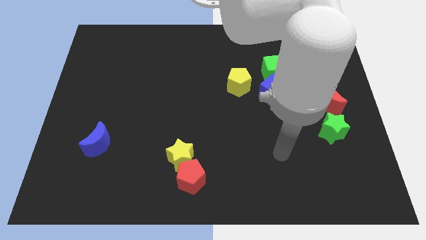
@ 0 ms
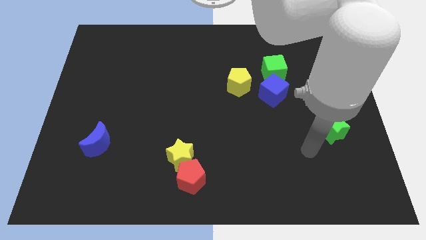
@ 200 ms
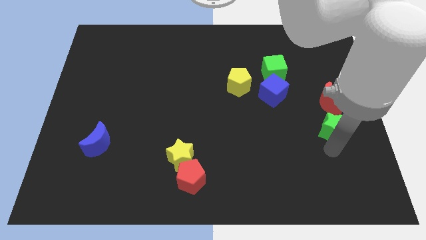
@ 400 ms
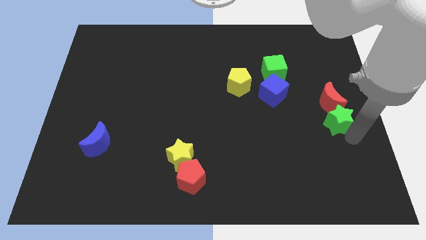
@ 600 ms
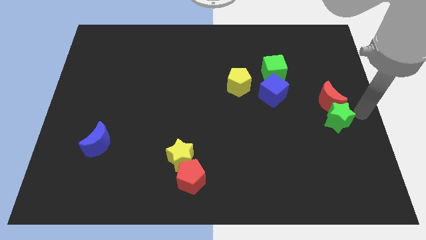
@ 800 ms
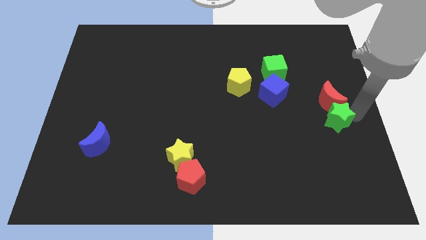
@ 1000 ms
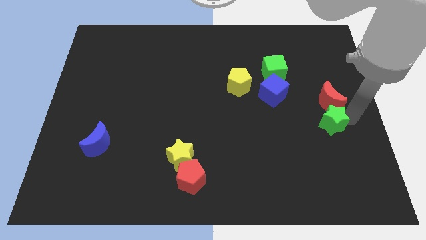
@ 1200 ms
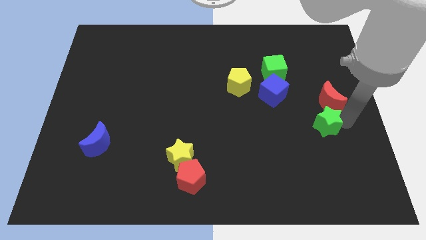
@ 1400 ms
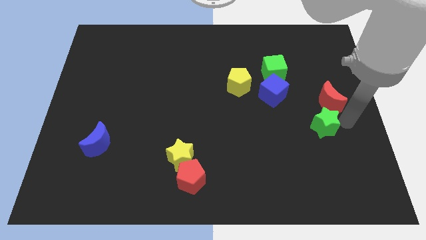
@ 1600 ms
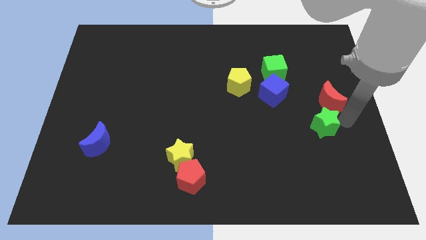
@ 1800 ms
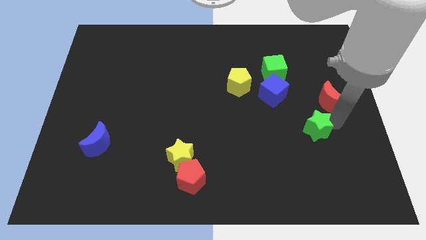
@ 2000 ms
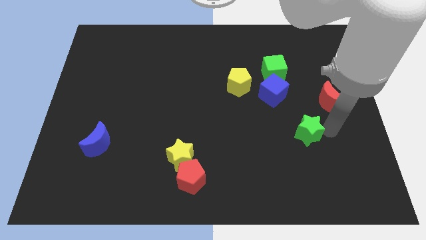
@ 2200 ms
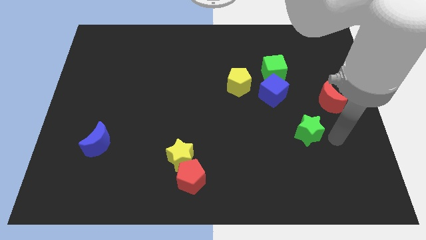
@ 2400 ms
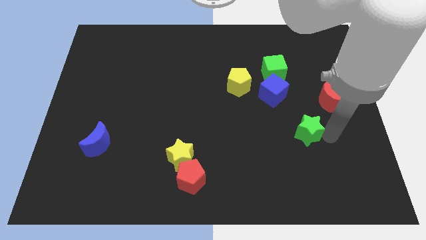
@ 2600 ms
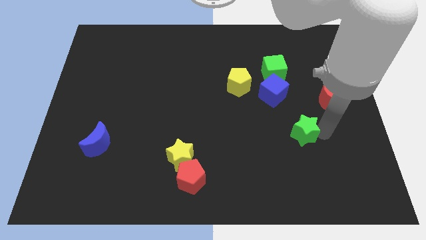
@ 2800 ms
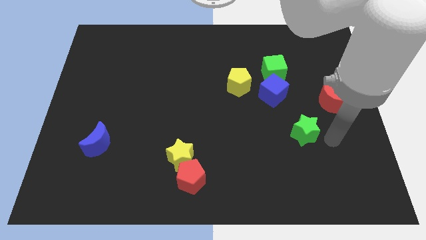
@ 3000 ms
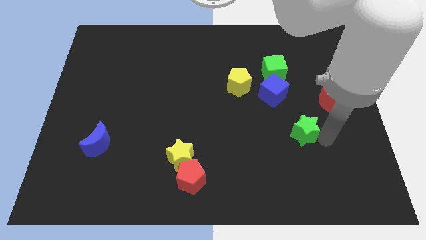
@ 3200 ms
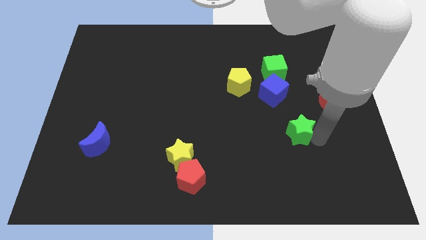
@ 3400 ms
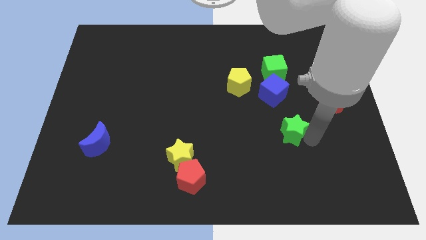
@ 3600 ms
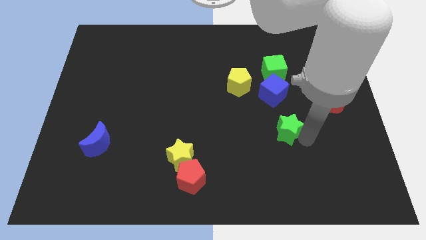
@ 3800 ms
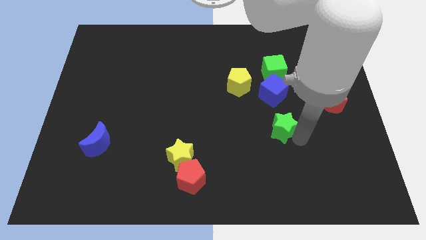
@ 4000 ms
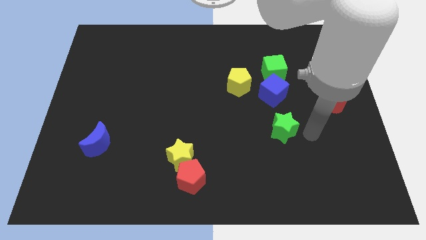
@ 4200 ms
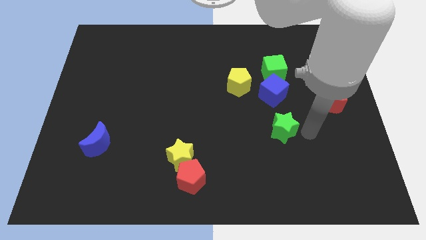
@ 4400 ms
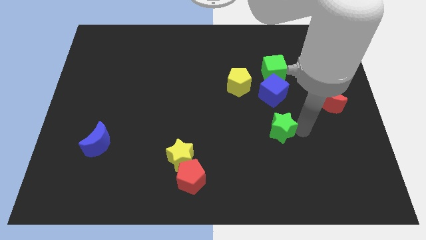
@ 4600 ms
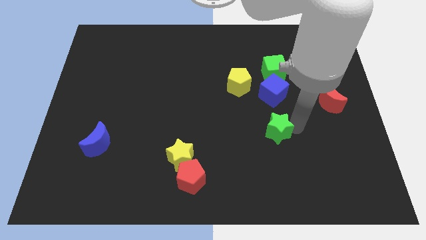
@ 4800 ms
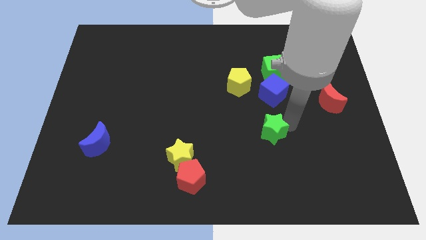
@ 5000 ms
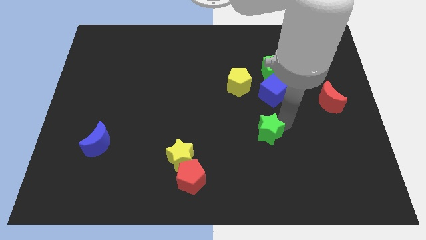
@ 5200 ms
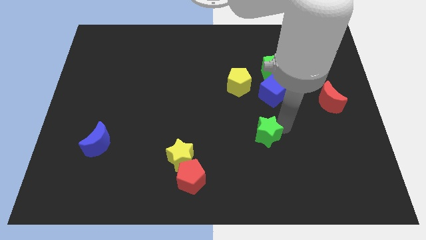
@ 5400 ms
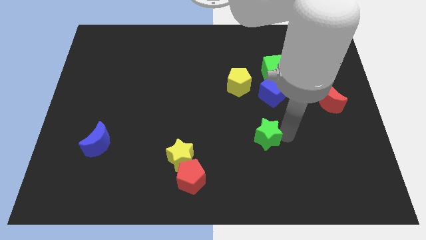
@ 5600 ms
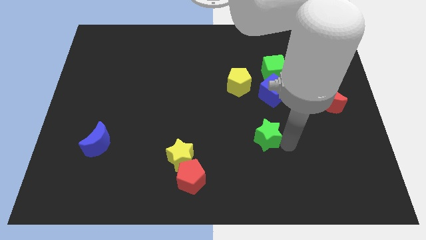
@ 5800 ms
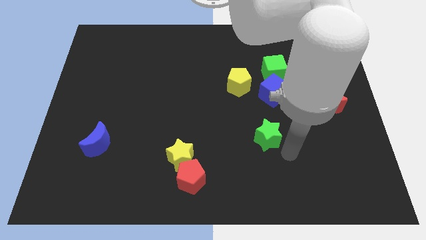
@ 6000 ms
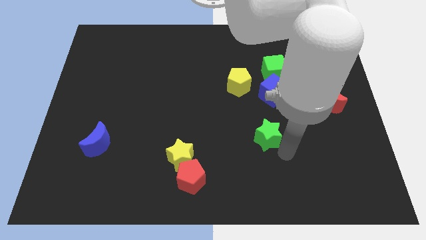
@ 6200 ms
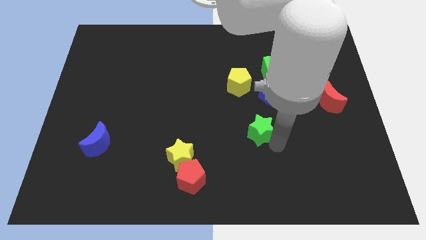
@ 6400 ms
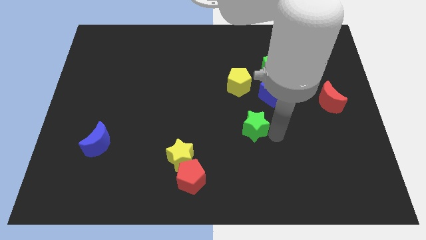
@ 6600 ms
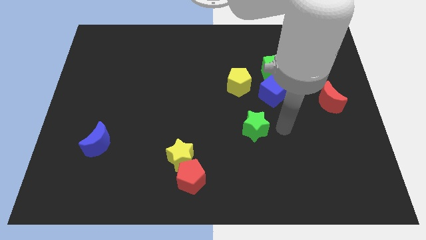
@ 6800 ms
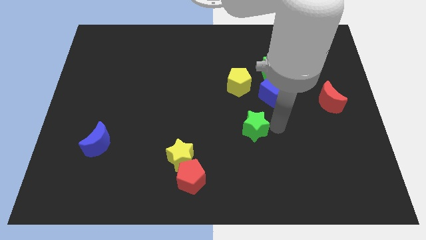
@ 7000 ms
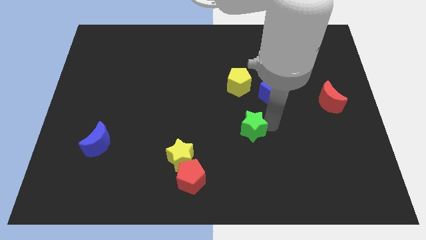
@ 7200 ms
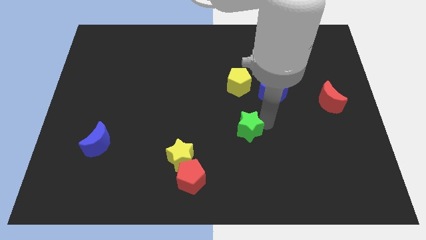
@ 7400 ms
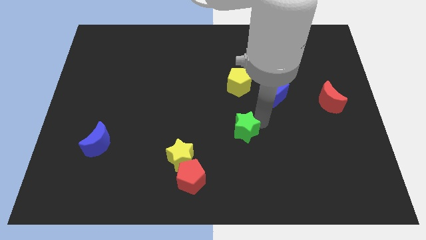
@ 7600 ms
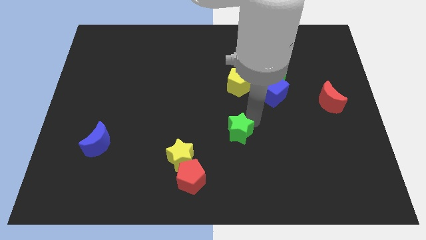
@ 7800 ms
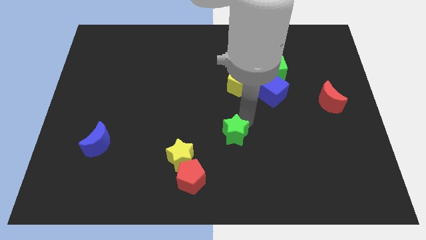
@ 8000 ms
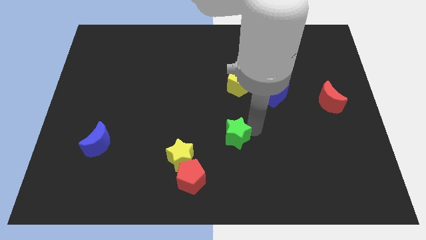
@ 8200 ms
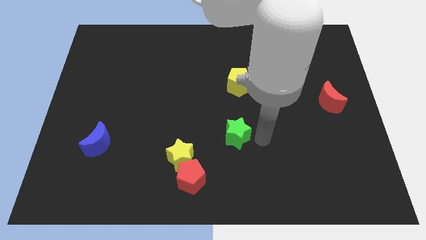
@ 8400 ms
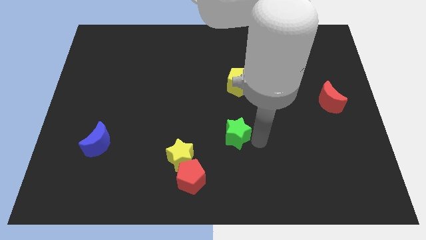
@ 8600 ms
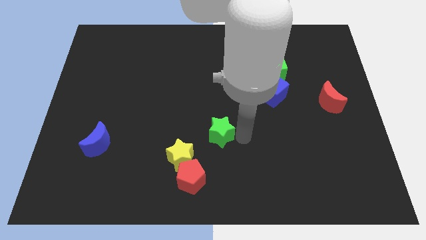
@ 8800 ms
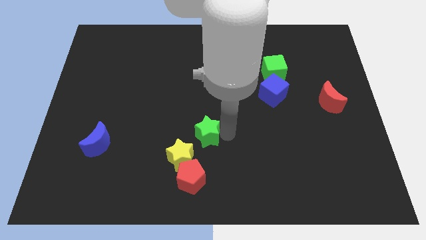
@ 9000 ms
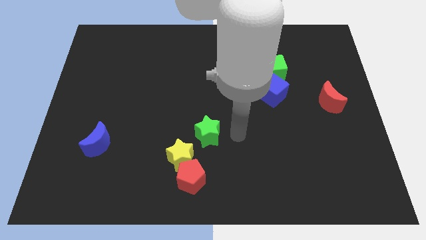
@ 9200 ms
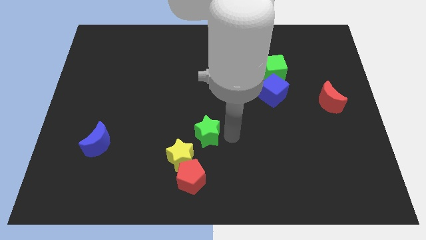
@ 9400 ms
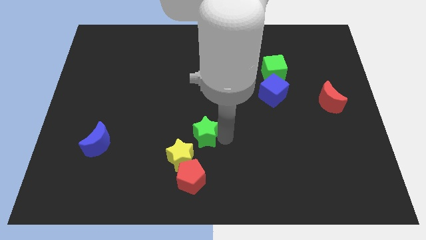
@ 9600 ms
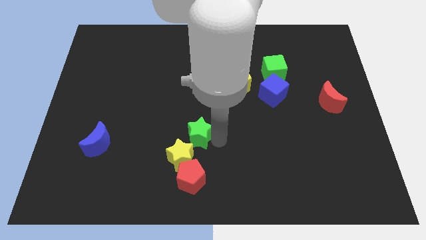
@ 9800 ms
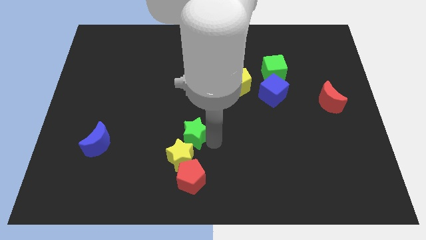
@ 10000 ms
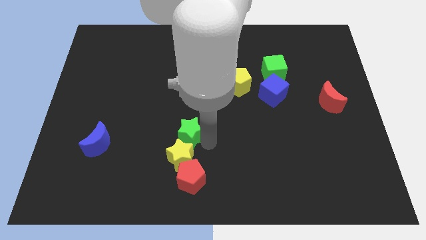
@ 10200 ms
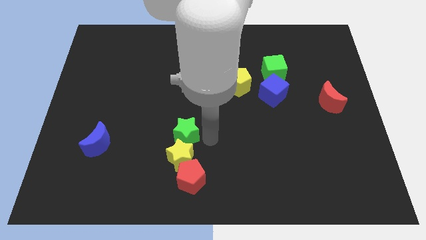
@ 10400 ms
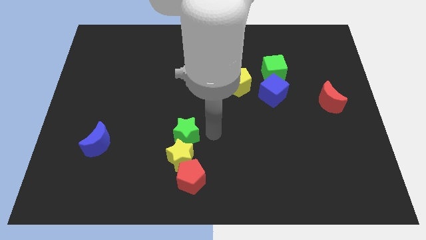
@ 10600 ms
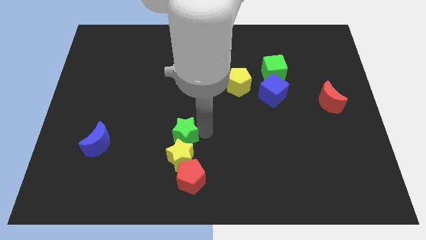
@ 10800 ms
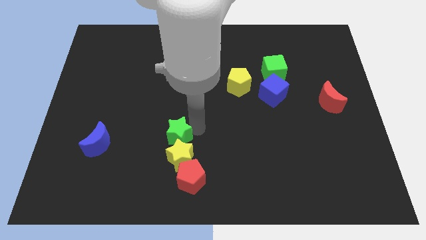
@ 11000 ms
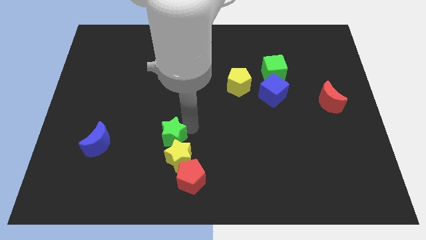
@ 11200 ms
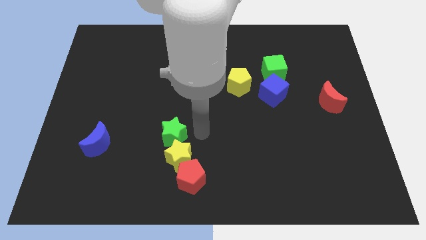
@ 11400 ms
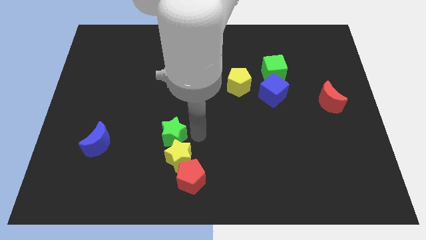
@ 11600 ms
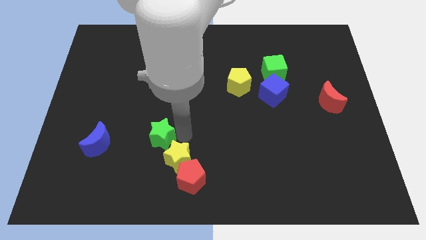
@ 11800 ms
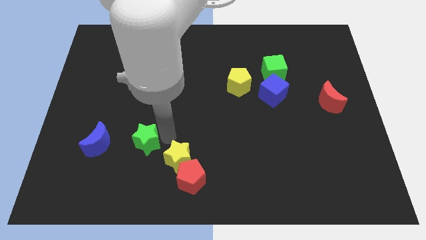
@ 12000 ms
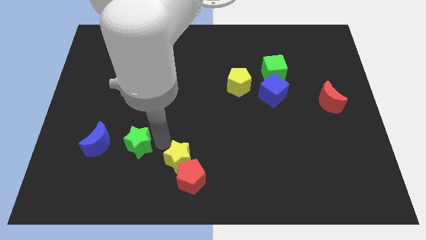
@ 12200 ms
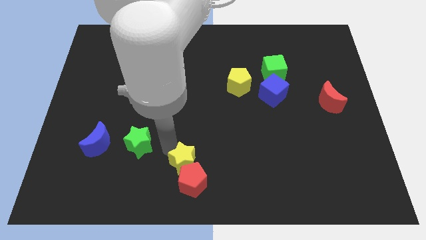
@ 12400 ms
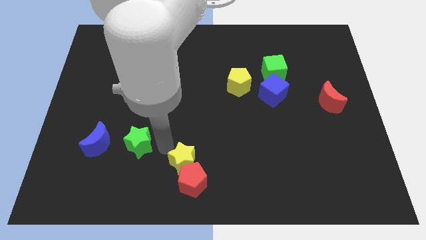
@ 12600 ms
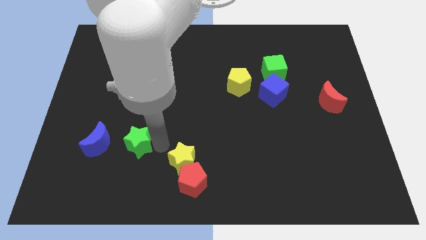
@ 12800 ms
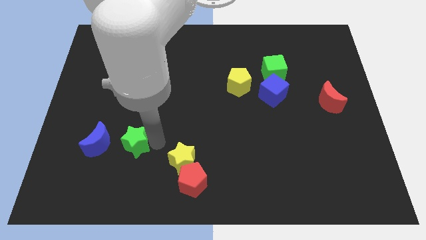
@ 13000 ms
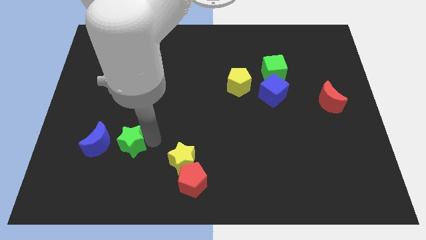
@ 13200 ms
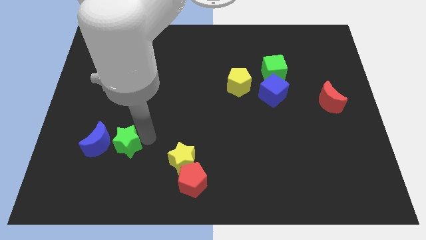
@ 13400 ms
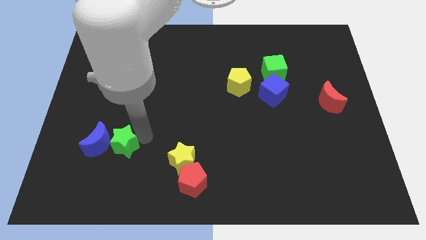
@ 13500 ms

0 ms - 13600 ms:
put the green star next to the blue moon
